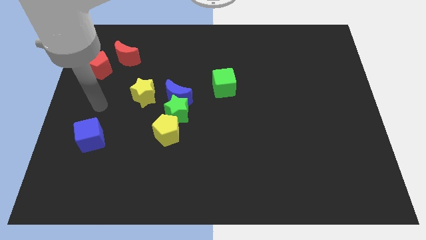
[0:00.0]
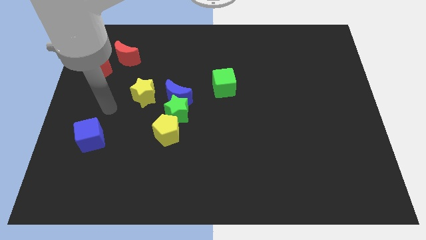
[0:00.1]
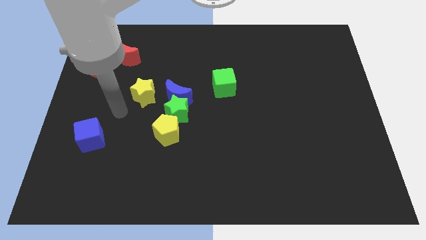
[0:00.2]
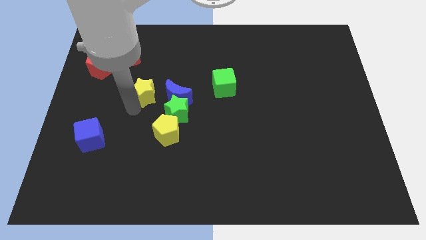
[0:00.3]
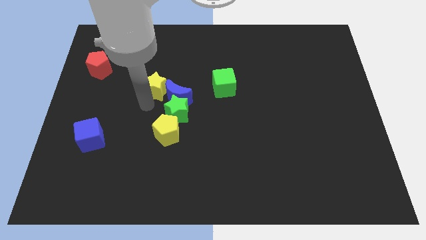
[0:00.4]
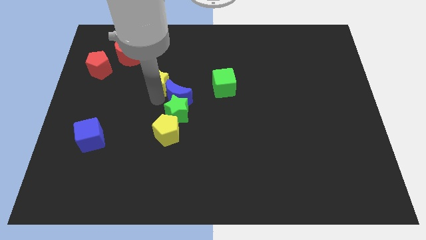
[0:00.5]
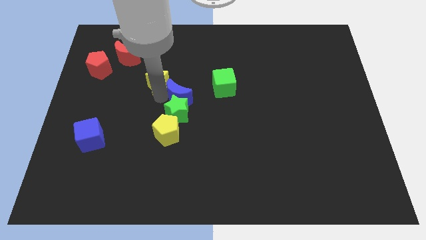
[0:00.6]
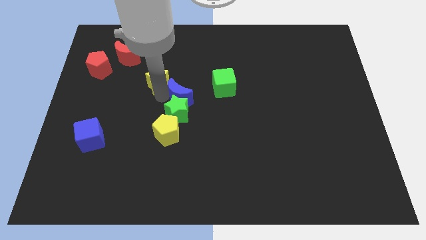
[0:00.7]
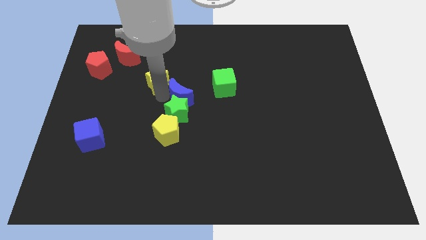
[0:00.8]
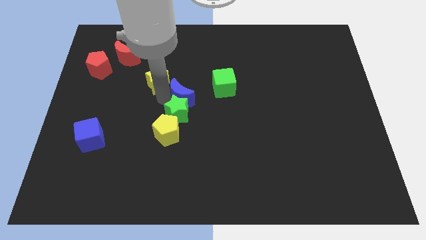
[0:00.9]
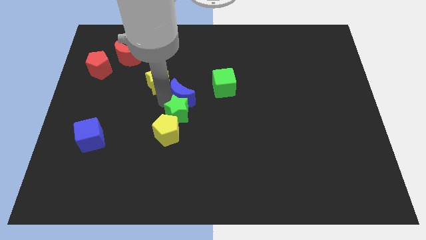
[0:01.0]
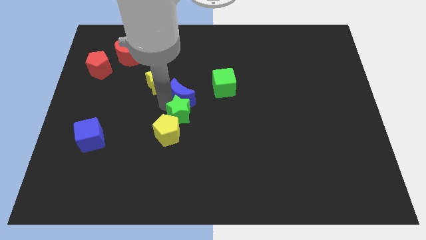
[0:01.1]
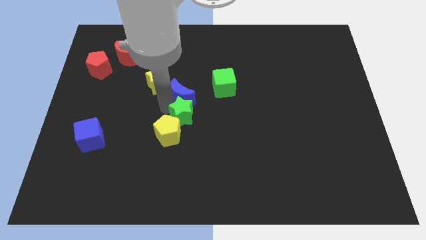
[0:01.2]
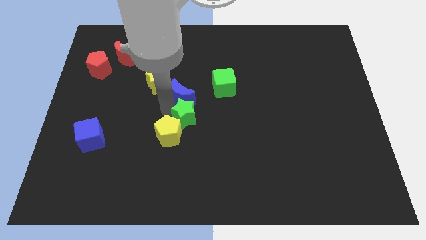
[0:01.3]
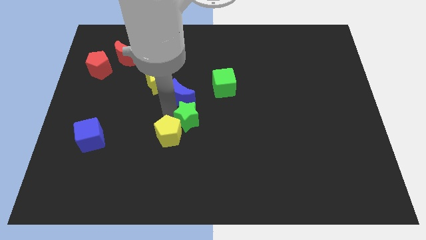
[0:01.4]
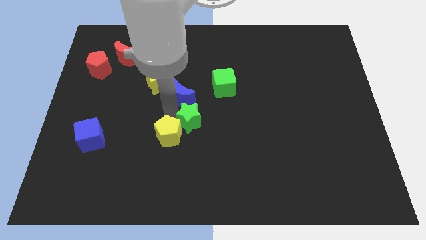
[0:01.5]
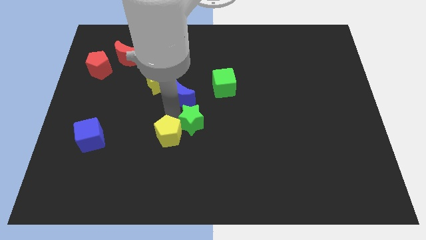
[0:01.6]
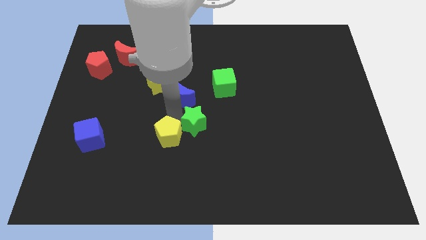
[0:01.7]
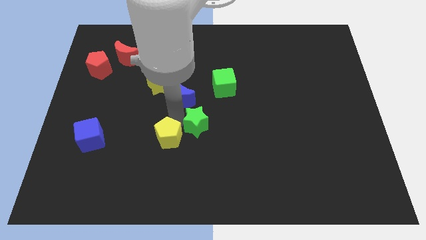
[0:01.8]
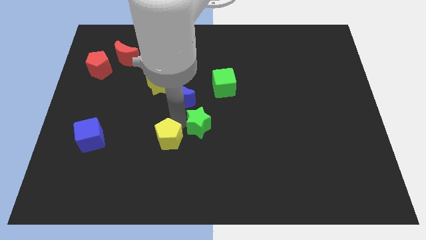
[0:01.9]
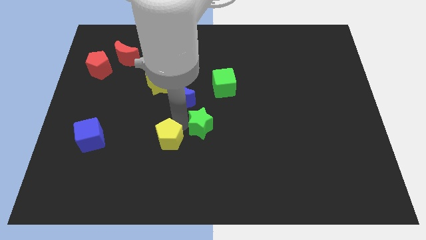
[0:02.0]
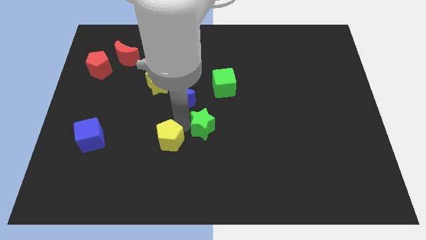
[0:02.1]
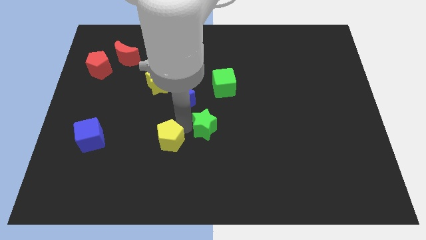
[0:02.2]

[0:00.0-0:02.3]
move the green star away from the blue moon, yellow pentagon, and yellow star

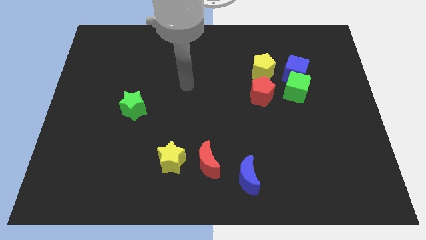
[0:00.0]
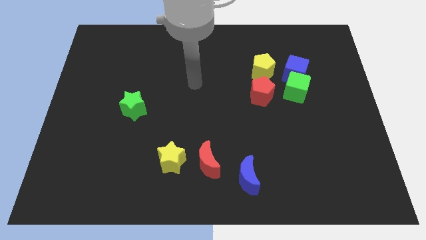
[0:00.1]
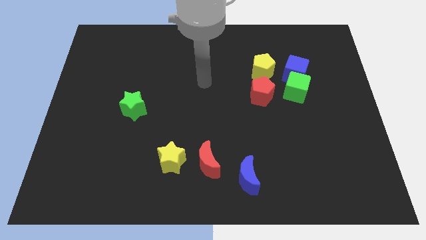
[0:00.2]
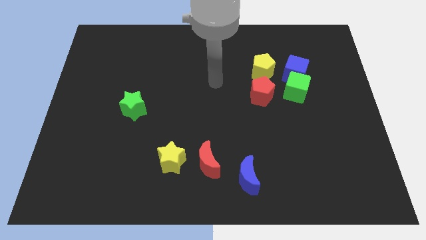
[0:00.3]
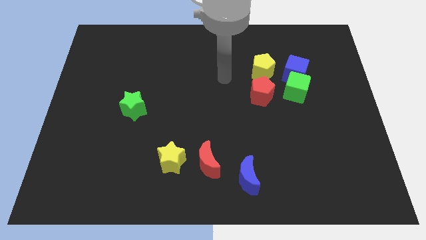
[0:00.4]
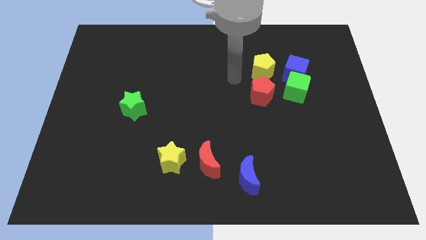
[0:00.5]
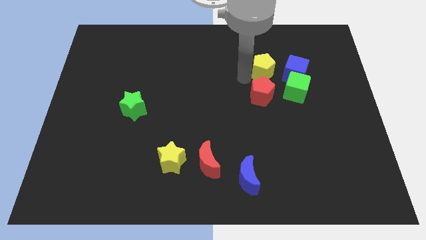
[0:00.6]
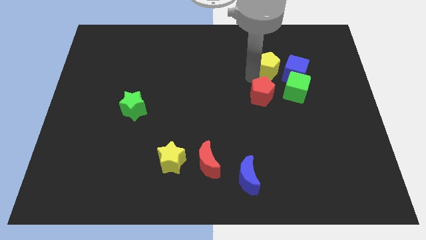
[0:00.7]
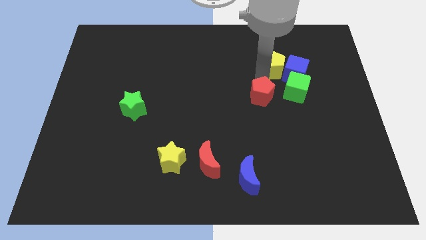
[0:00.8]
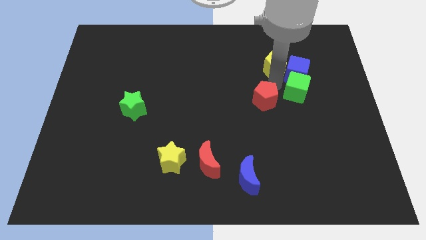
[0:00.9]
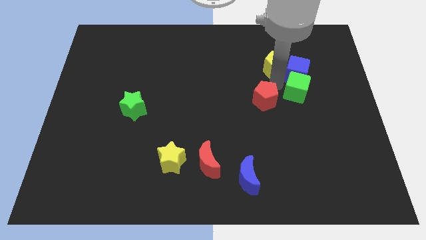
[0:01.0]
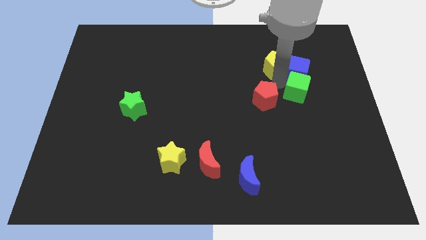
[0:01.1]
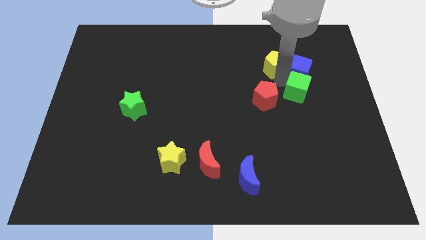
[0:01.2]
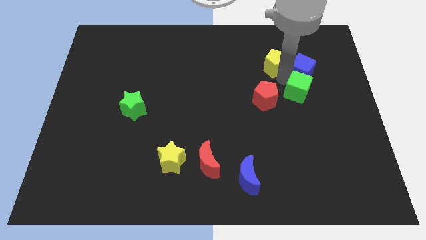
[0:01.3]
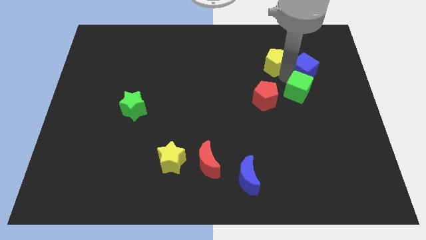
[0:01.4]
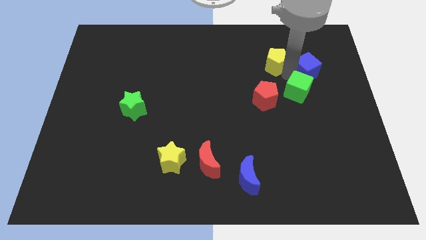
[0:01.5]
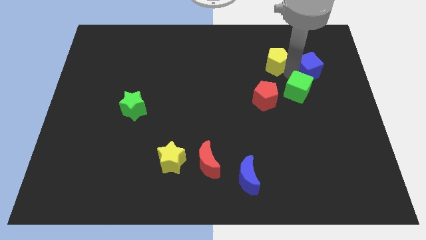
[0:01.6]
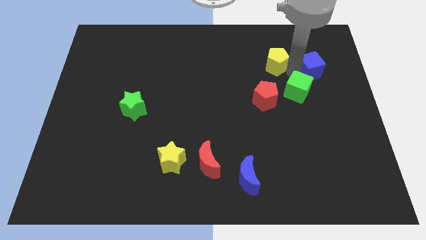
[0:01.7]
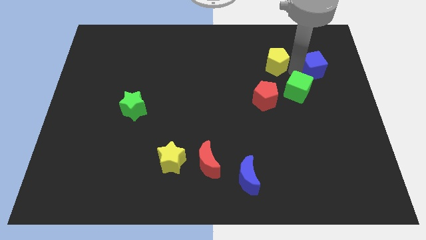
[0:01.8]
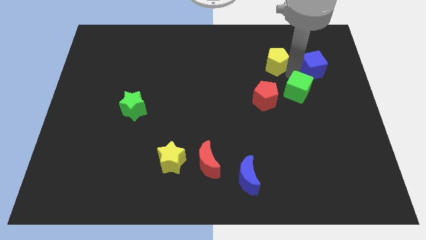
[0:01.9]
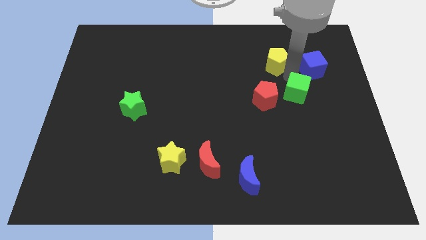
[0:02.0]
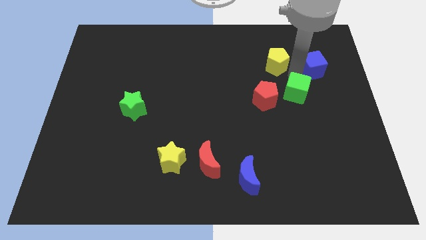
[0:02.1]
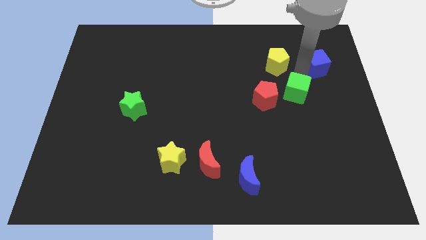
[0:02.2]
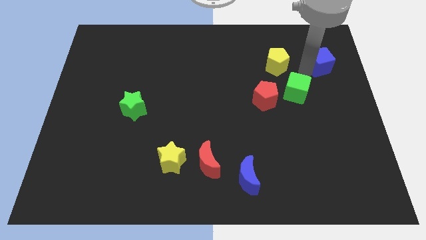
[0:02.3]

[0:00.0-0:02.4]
separate the blue cube from the green cube and yellow pentagon

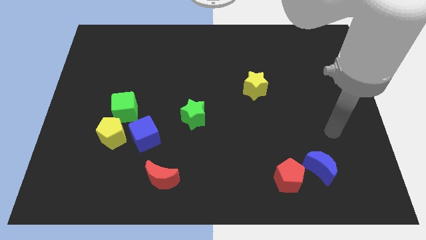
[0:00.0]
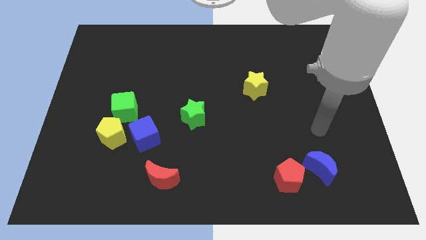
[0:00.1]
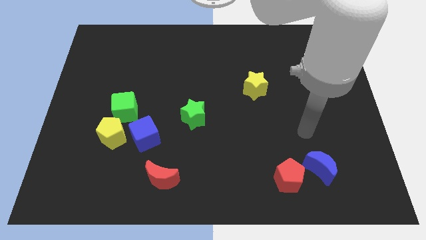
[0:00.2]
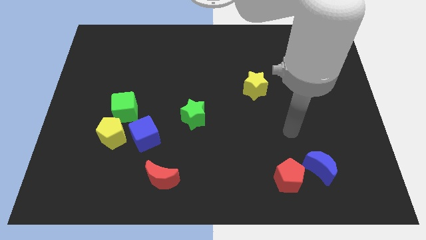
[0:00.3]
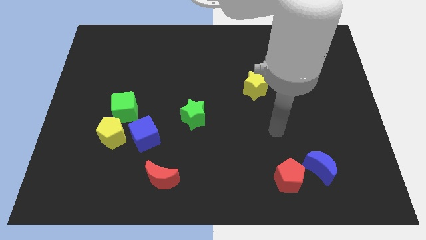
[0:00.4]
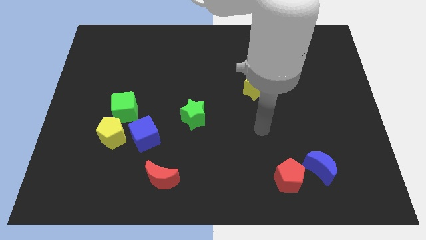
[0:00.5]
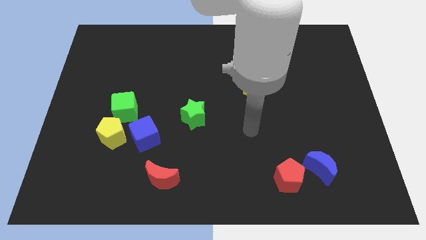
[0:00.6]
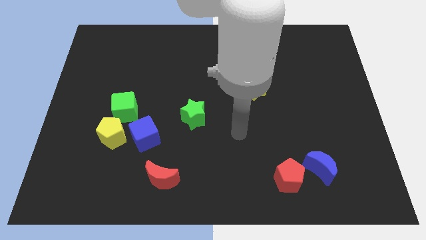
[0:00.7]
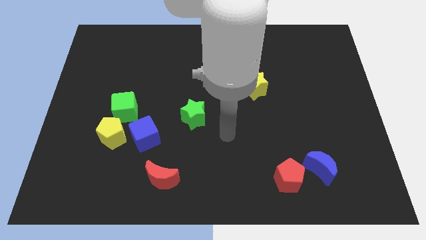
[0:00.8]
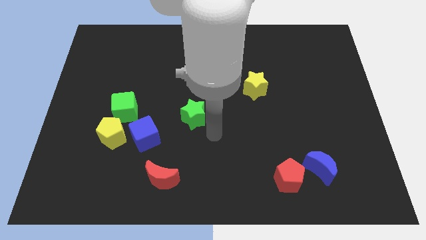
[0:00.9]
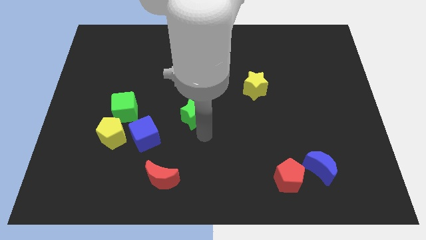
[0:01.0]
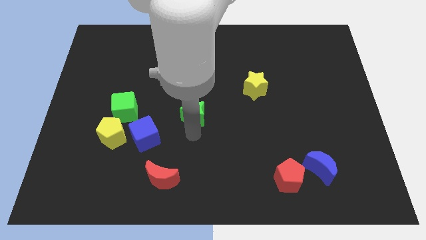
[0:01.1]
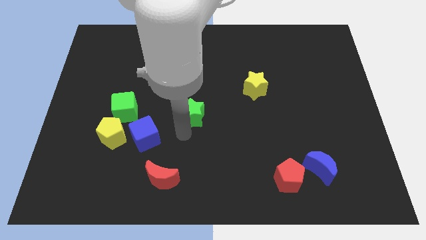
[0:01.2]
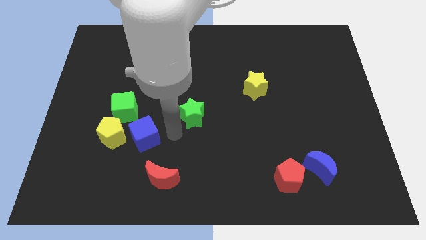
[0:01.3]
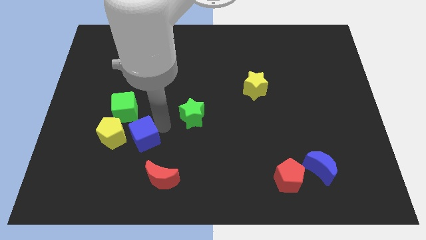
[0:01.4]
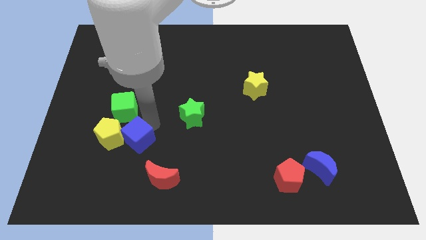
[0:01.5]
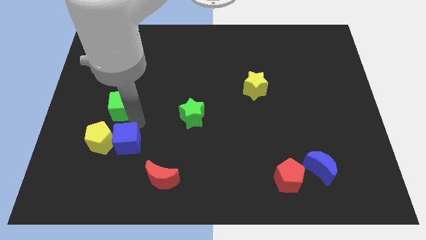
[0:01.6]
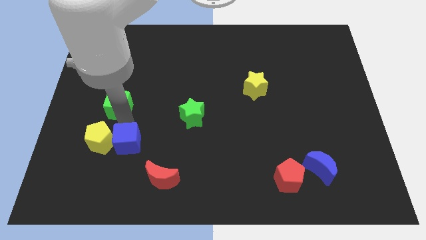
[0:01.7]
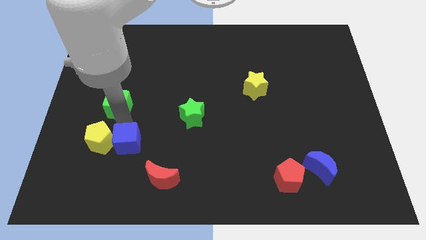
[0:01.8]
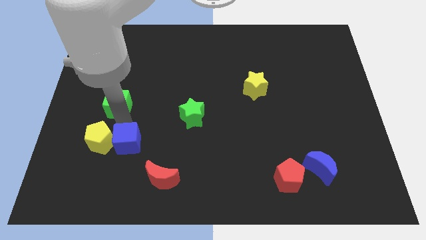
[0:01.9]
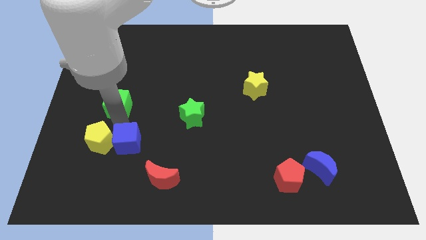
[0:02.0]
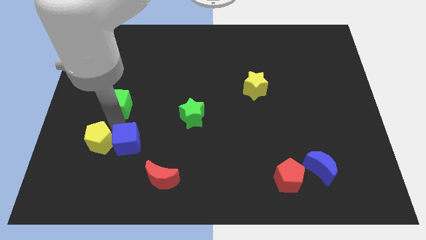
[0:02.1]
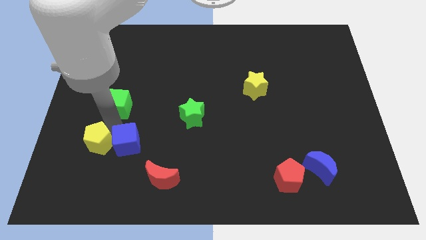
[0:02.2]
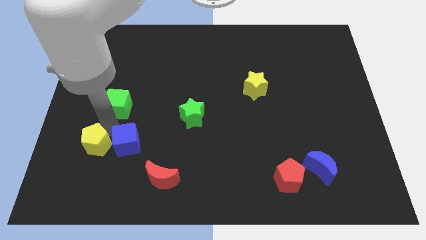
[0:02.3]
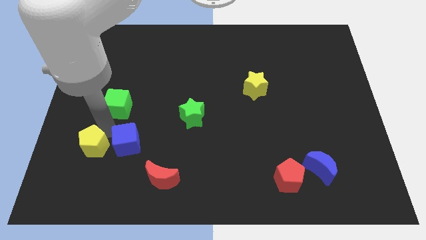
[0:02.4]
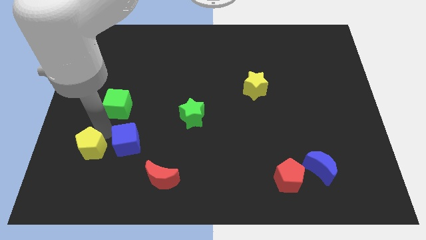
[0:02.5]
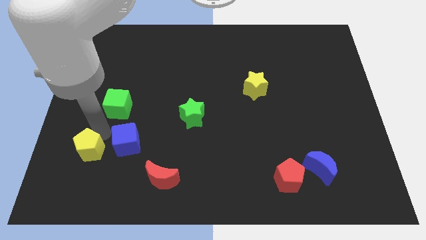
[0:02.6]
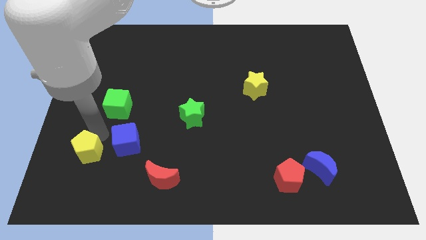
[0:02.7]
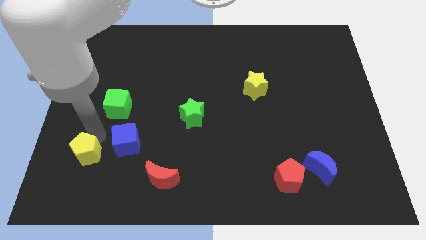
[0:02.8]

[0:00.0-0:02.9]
move the yellow pentagon away from the blue cube and green cube

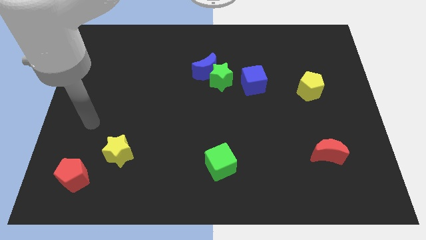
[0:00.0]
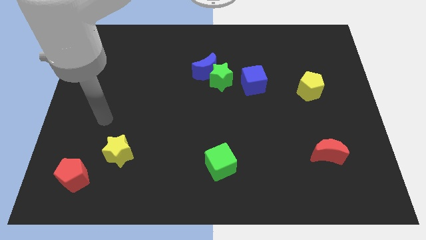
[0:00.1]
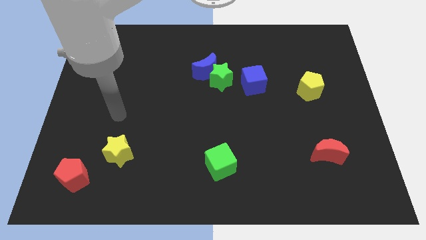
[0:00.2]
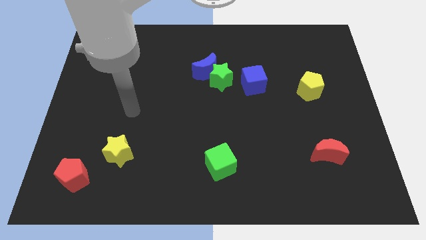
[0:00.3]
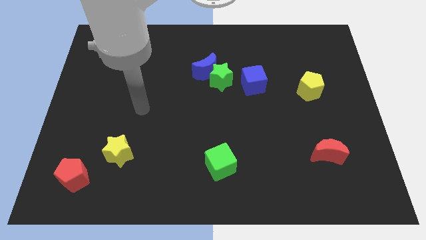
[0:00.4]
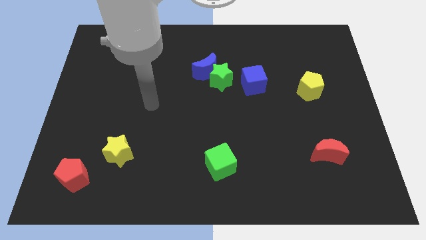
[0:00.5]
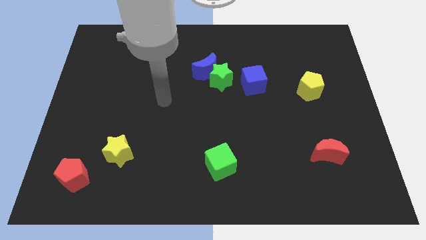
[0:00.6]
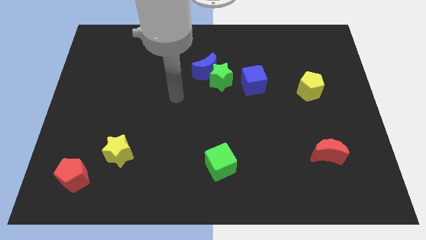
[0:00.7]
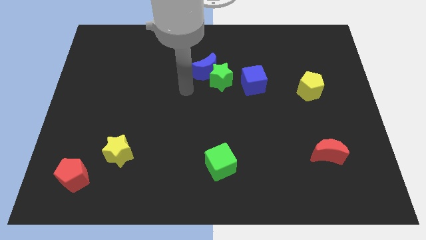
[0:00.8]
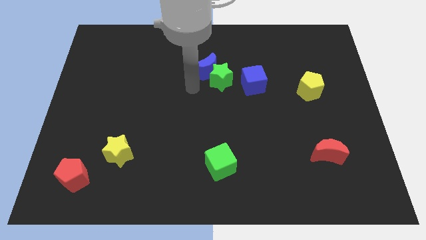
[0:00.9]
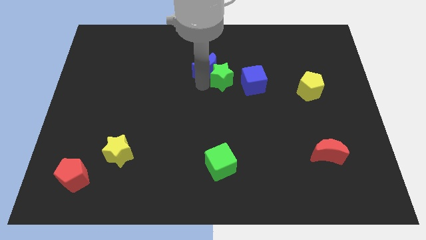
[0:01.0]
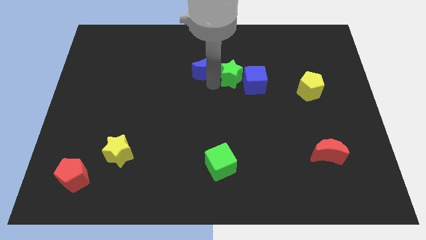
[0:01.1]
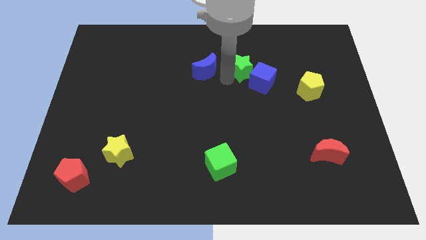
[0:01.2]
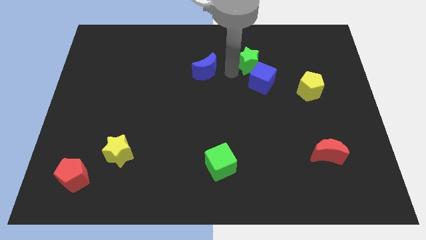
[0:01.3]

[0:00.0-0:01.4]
separate the blue moon from the green star

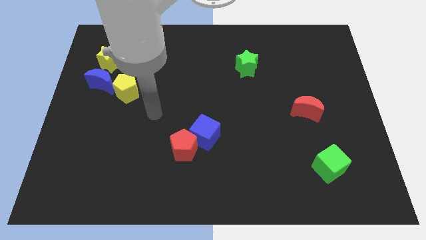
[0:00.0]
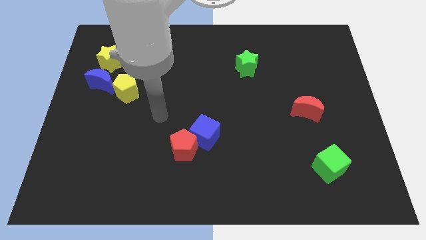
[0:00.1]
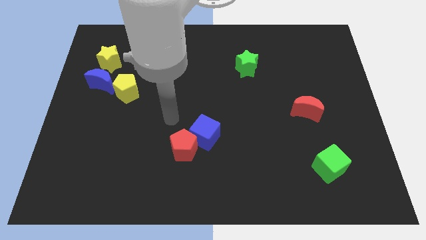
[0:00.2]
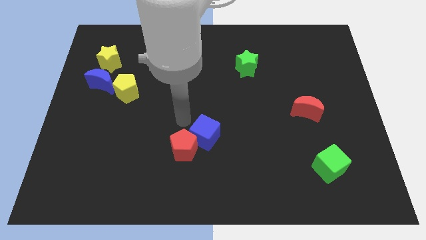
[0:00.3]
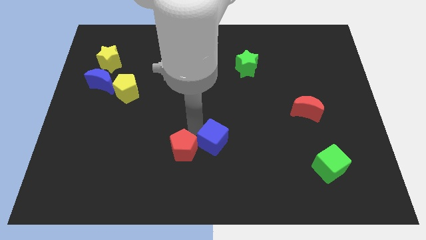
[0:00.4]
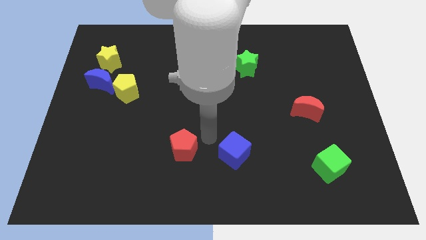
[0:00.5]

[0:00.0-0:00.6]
move the red pentagon away from the blue cube
